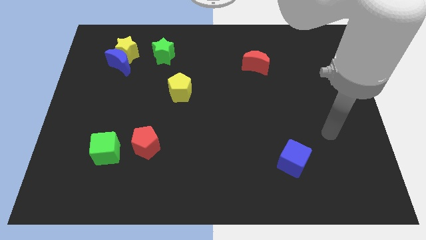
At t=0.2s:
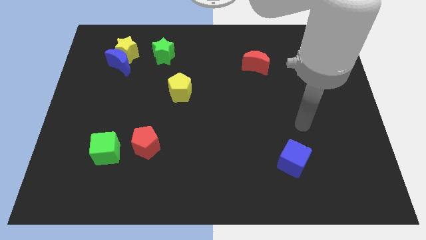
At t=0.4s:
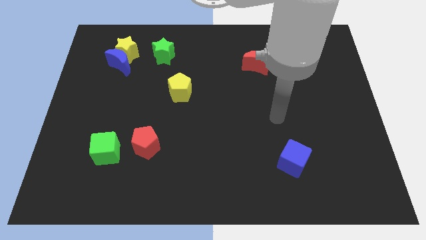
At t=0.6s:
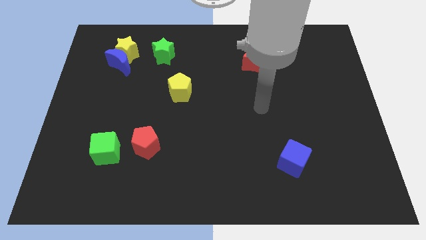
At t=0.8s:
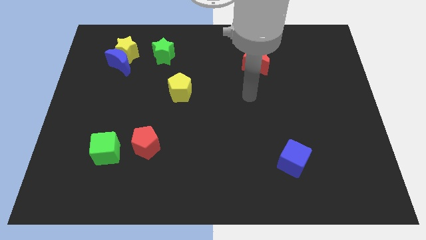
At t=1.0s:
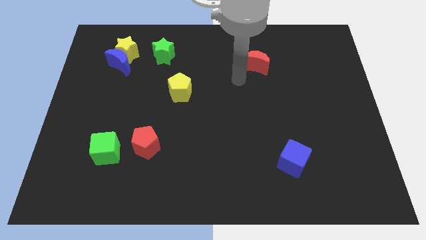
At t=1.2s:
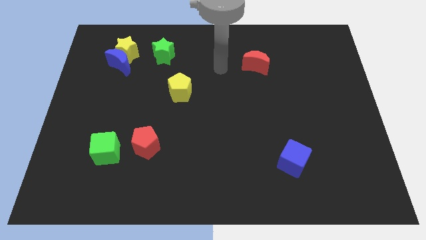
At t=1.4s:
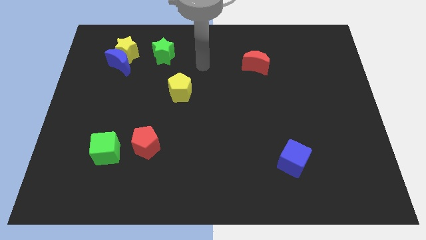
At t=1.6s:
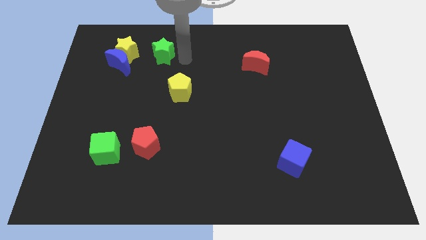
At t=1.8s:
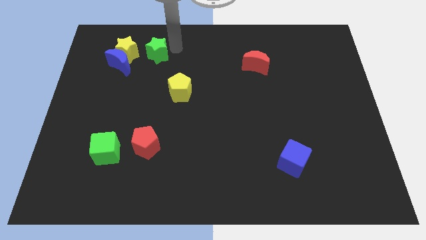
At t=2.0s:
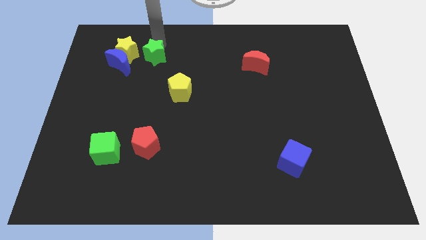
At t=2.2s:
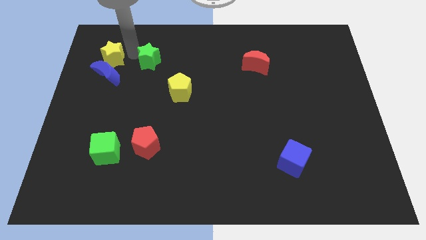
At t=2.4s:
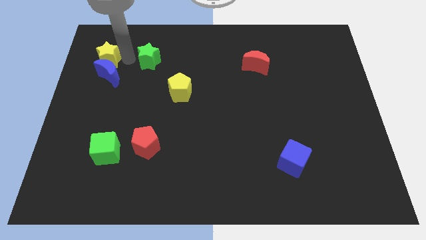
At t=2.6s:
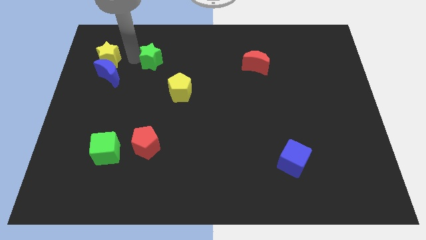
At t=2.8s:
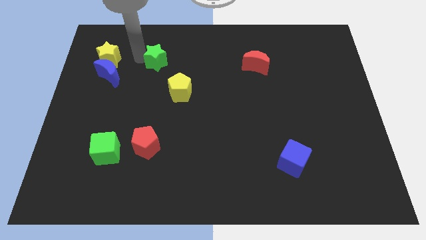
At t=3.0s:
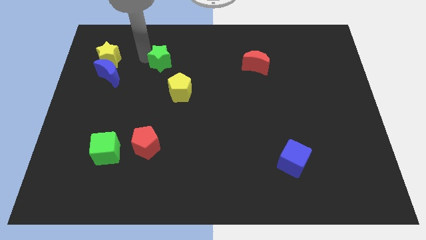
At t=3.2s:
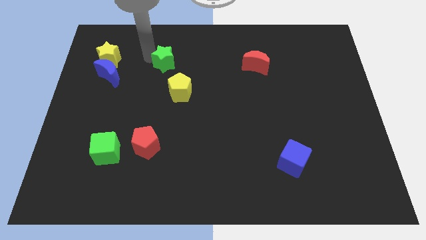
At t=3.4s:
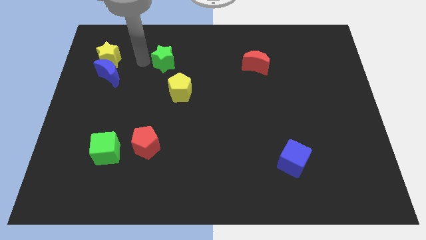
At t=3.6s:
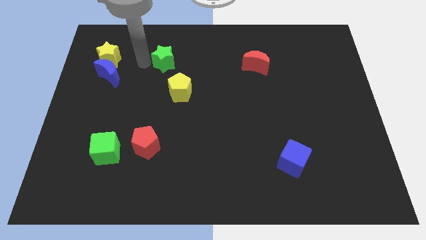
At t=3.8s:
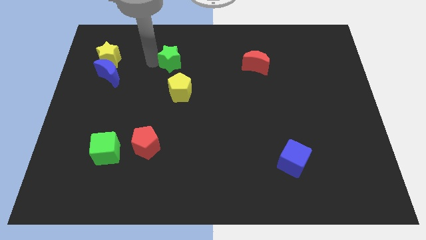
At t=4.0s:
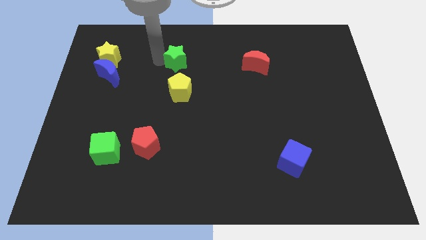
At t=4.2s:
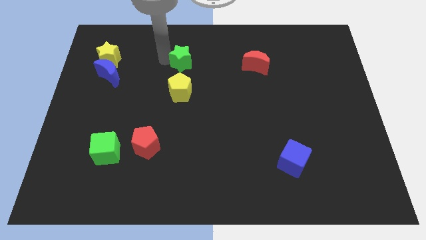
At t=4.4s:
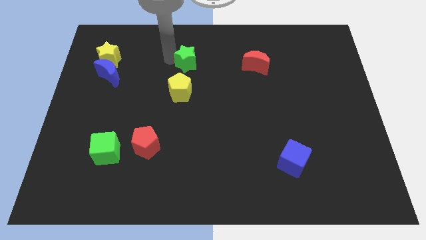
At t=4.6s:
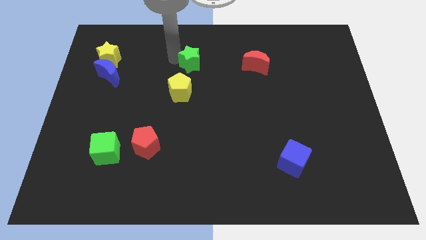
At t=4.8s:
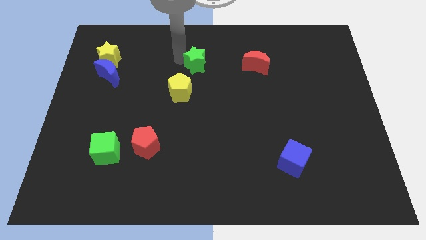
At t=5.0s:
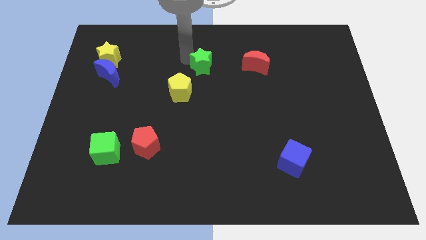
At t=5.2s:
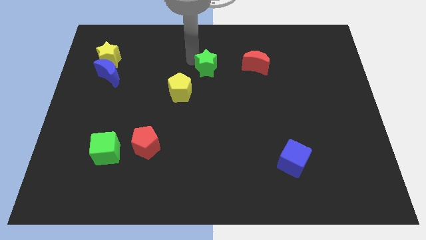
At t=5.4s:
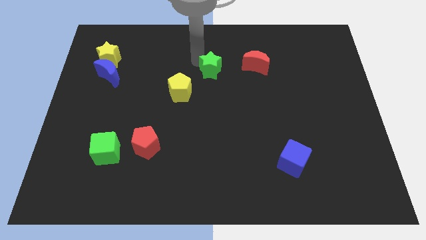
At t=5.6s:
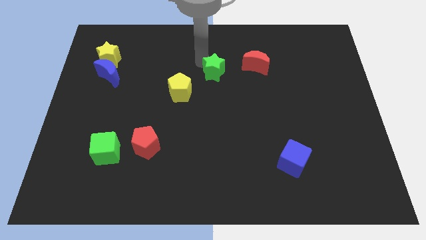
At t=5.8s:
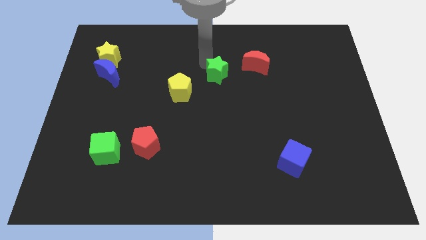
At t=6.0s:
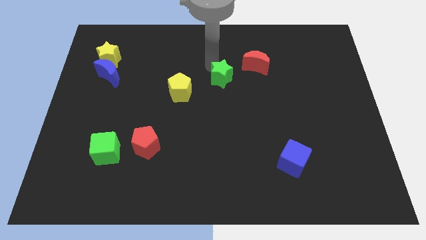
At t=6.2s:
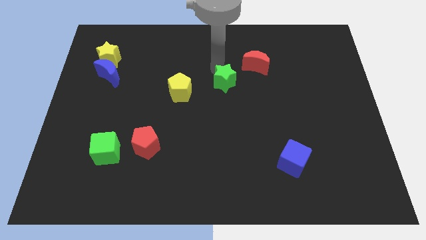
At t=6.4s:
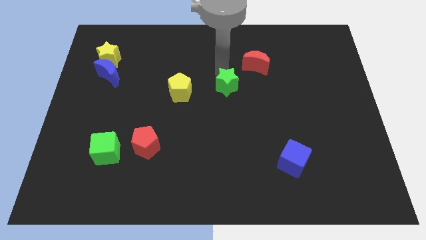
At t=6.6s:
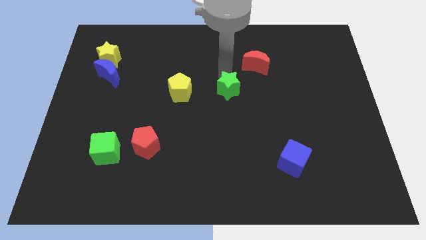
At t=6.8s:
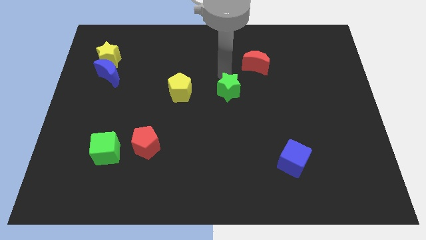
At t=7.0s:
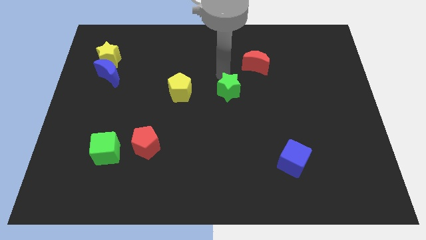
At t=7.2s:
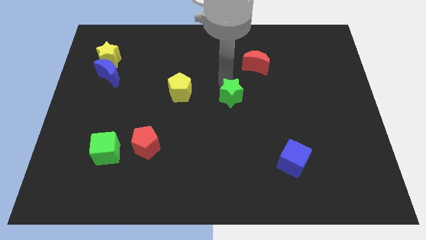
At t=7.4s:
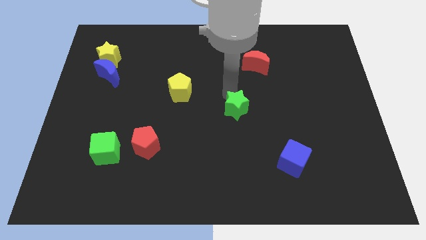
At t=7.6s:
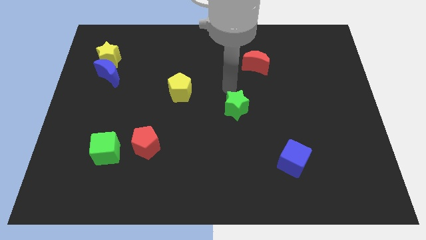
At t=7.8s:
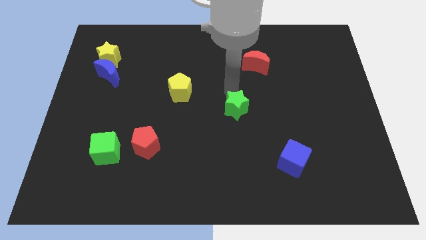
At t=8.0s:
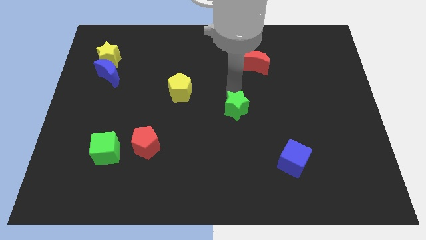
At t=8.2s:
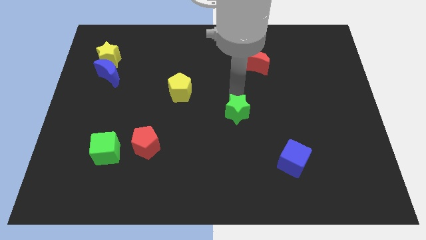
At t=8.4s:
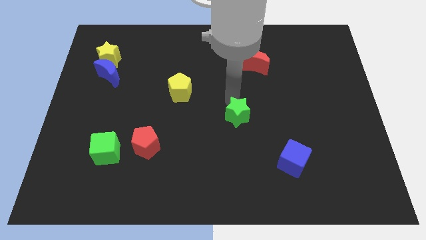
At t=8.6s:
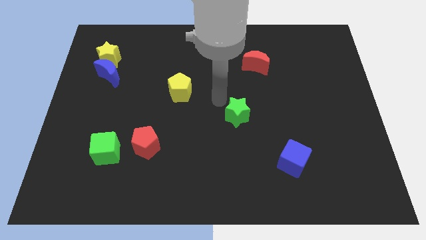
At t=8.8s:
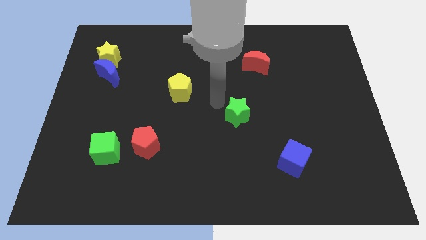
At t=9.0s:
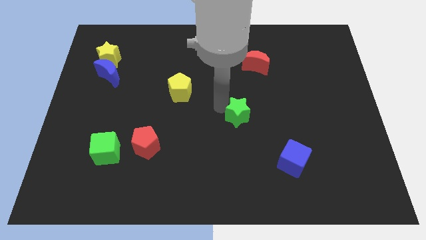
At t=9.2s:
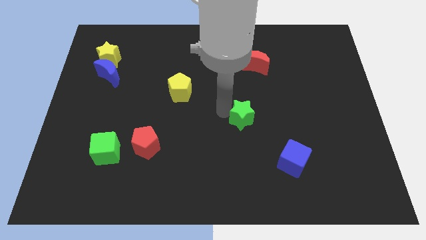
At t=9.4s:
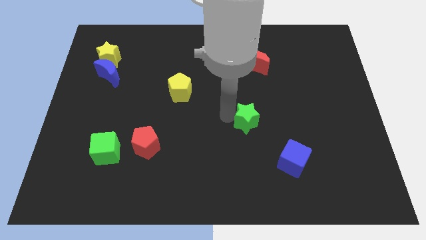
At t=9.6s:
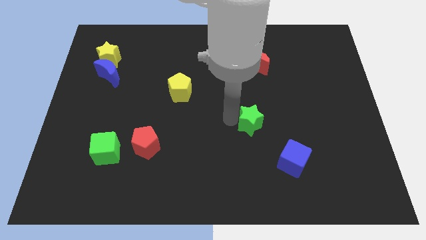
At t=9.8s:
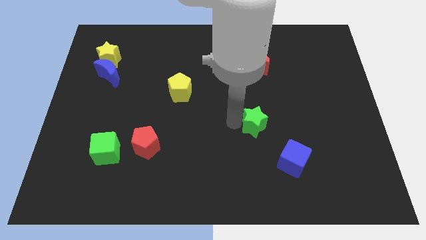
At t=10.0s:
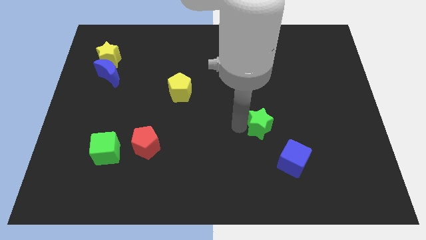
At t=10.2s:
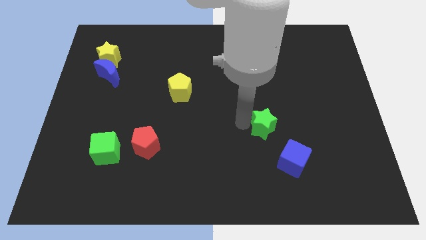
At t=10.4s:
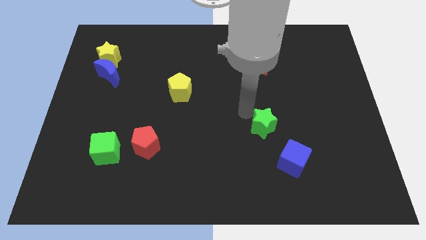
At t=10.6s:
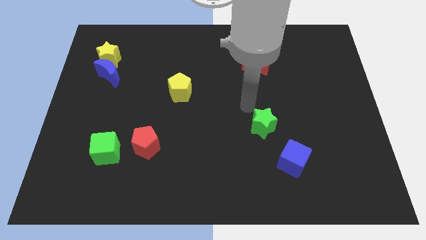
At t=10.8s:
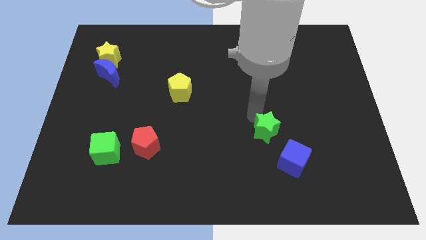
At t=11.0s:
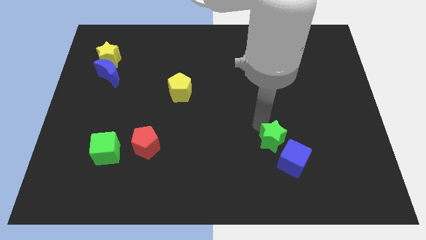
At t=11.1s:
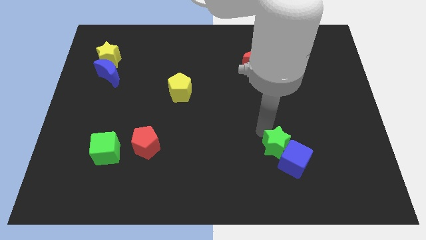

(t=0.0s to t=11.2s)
move the green star close to the blue cube

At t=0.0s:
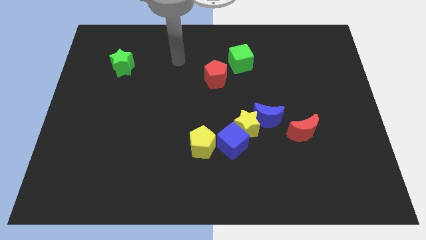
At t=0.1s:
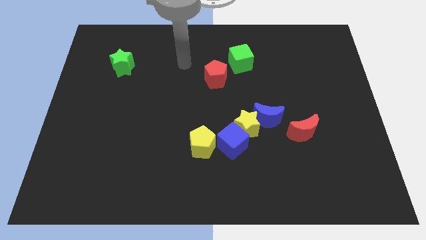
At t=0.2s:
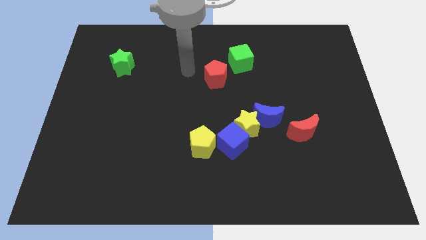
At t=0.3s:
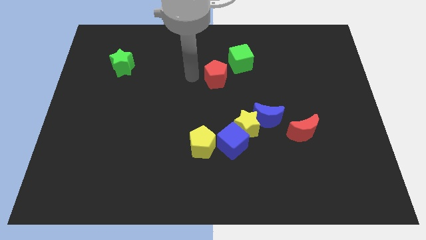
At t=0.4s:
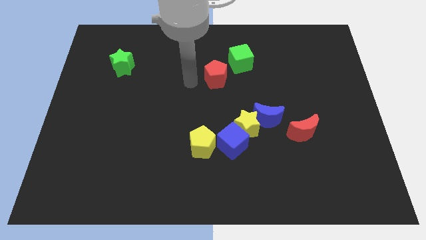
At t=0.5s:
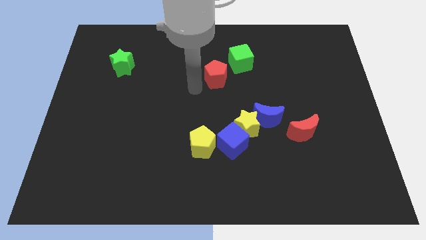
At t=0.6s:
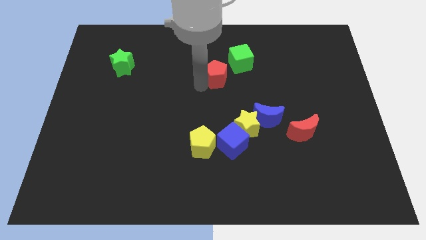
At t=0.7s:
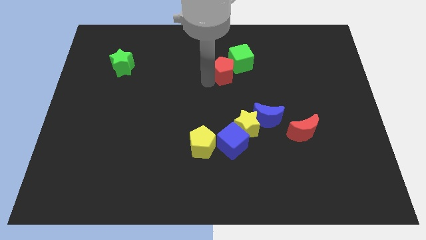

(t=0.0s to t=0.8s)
slide the red pentagon next to the green cube
